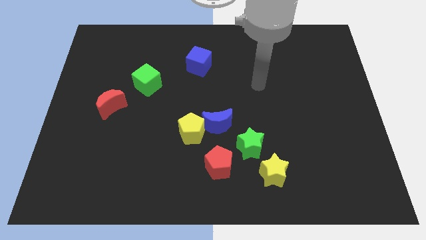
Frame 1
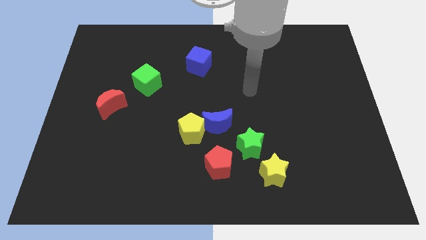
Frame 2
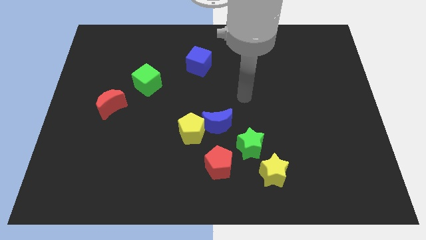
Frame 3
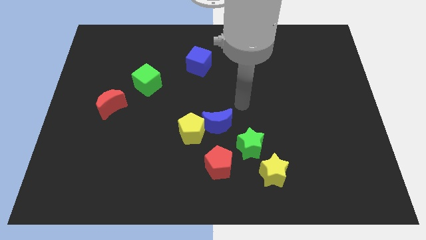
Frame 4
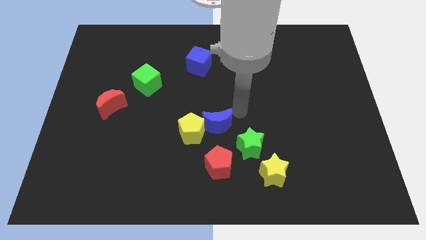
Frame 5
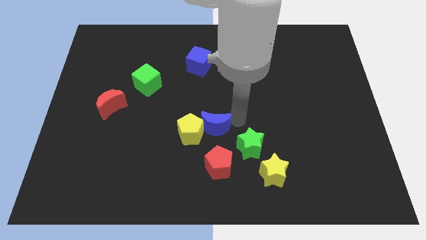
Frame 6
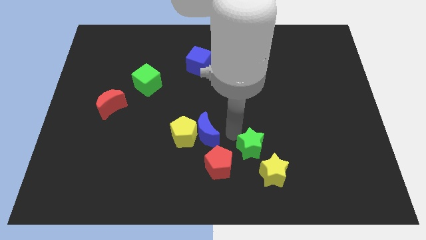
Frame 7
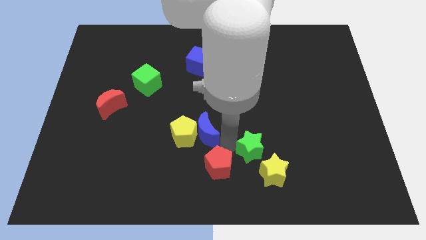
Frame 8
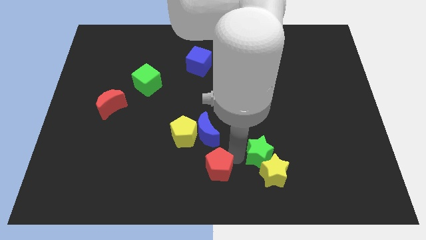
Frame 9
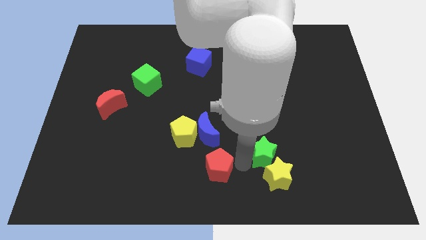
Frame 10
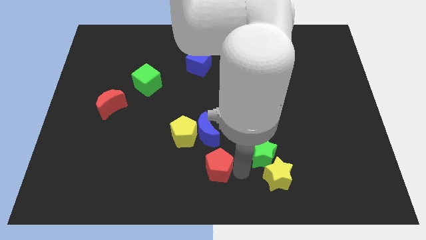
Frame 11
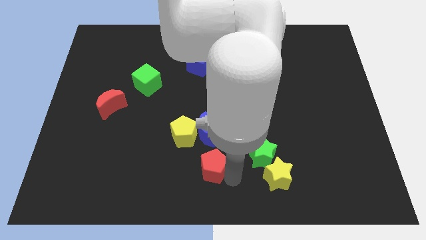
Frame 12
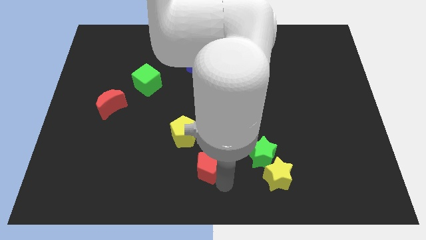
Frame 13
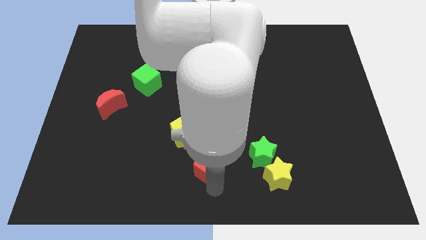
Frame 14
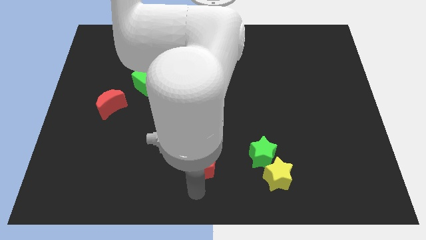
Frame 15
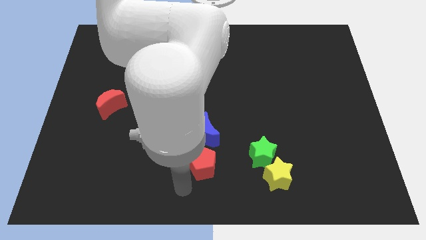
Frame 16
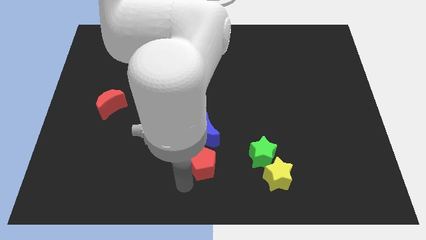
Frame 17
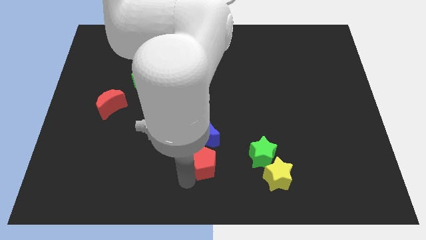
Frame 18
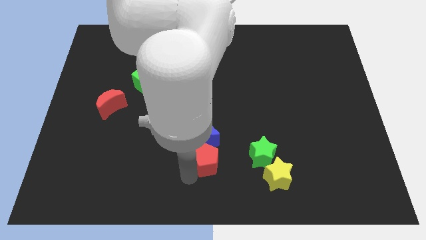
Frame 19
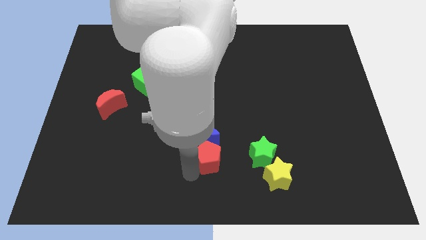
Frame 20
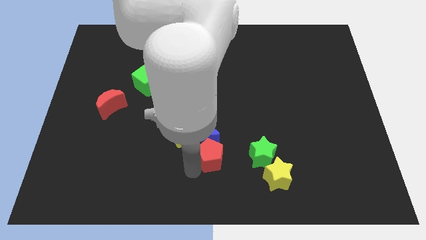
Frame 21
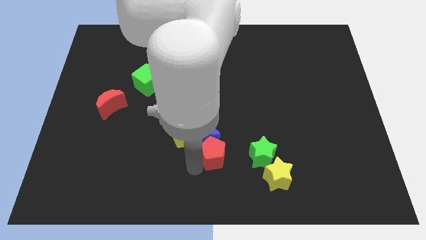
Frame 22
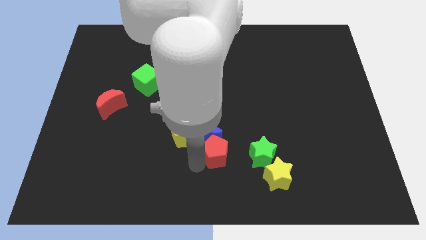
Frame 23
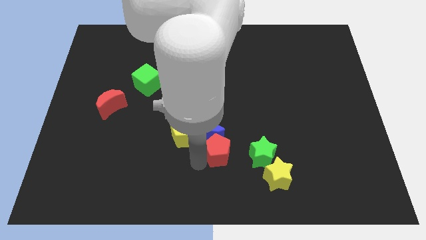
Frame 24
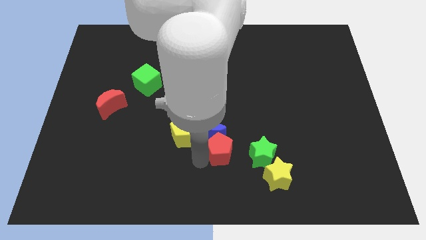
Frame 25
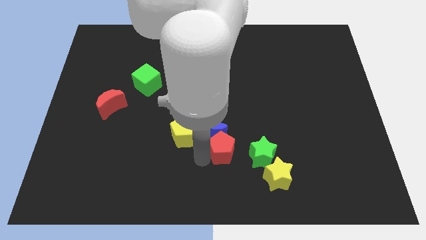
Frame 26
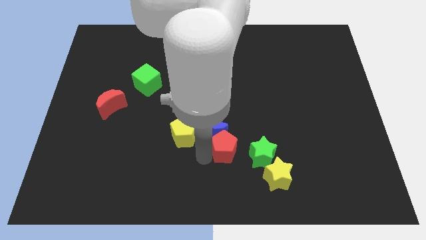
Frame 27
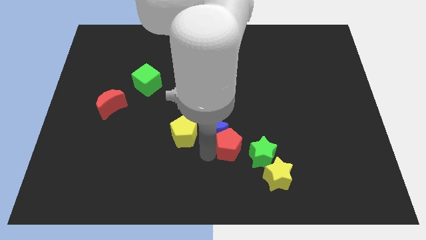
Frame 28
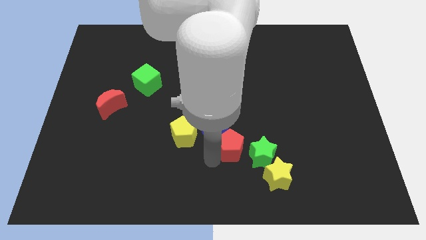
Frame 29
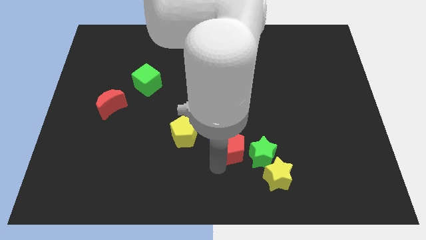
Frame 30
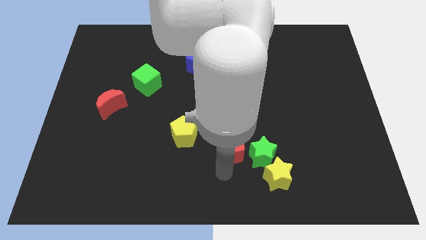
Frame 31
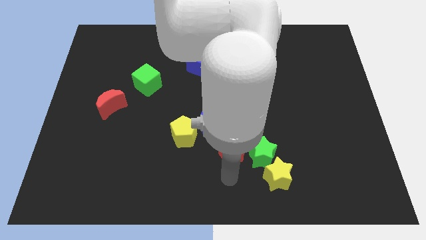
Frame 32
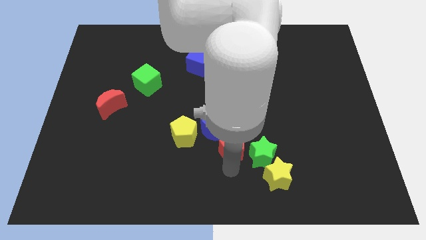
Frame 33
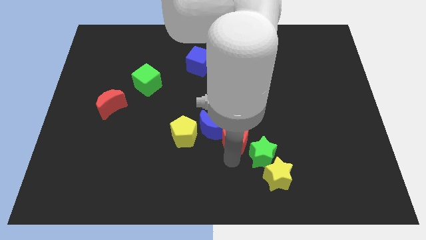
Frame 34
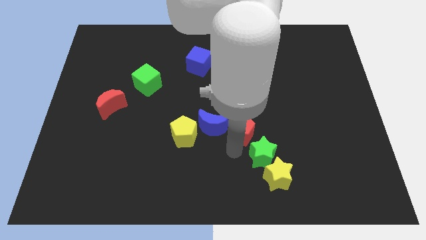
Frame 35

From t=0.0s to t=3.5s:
move the red pentagon up somewhat

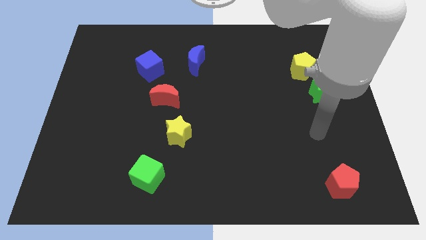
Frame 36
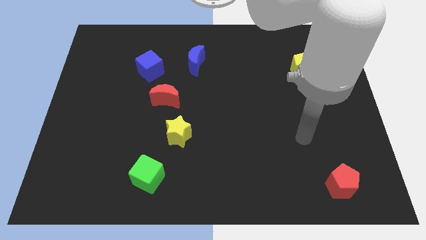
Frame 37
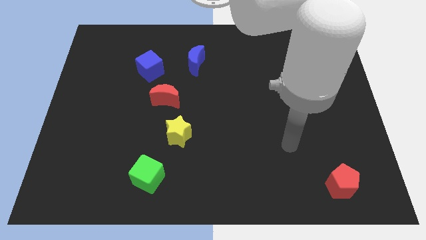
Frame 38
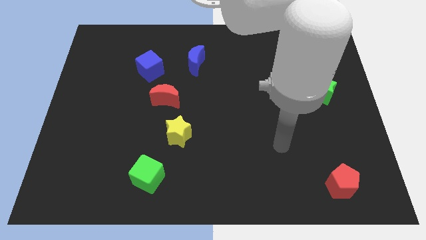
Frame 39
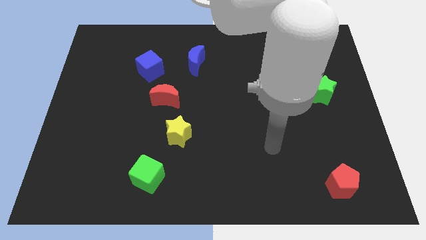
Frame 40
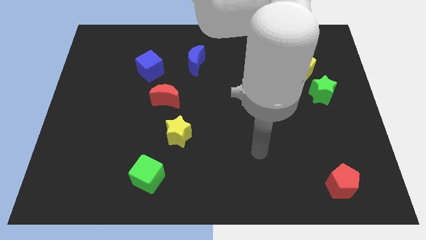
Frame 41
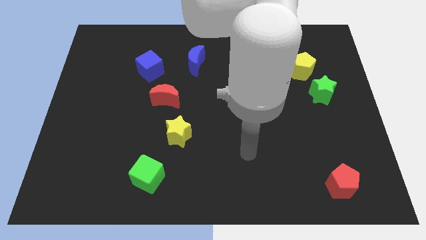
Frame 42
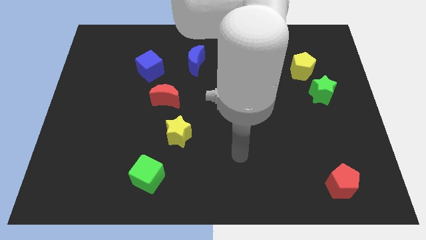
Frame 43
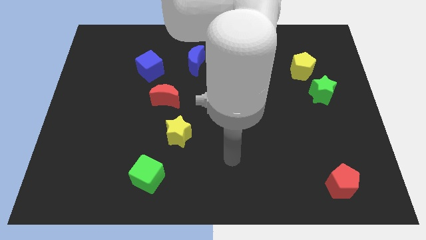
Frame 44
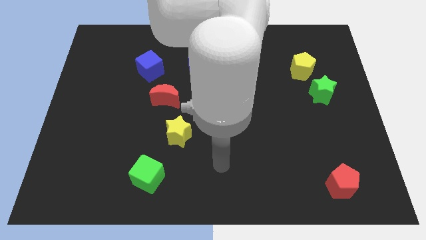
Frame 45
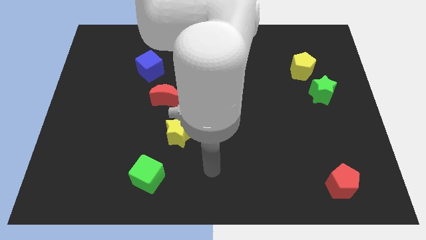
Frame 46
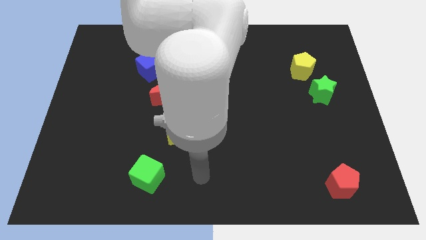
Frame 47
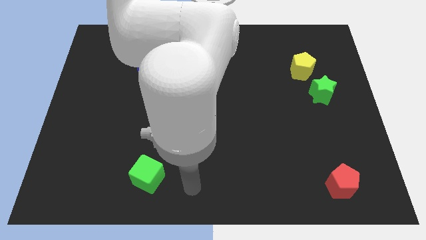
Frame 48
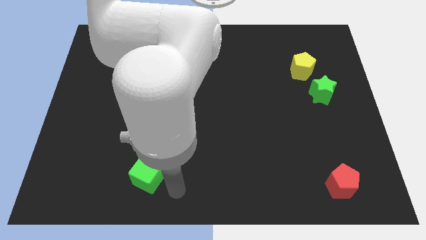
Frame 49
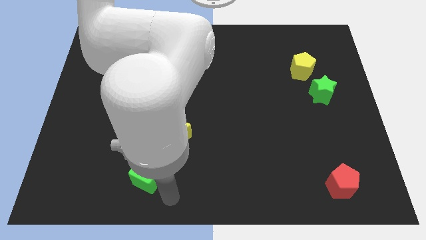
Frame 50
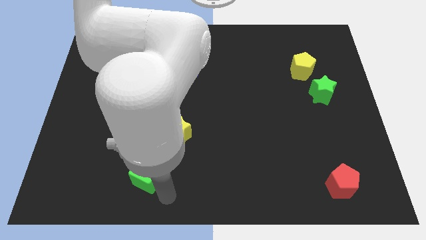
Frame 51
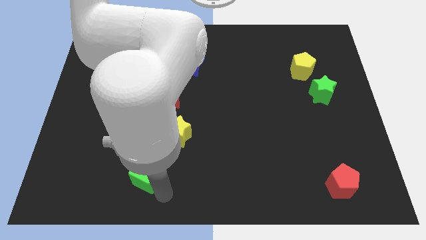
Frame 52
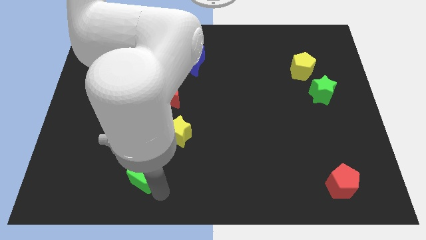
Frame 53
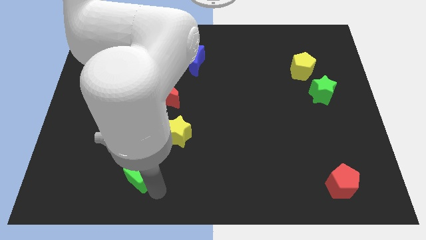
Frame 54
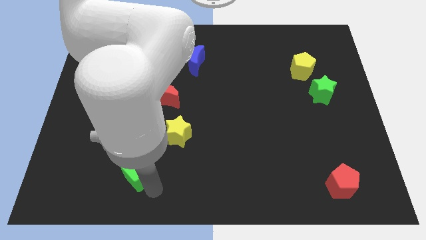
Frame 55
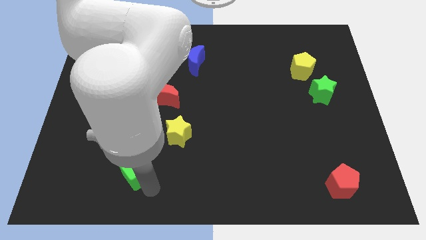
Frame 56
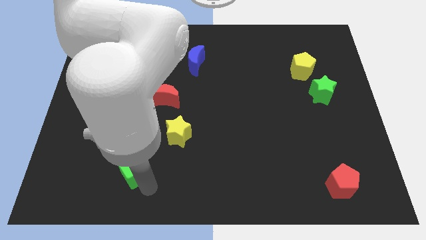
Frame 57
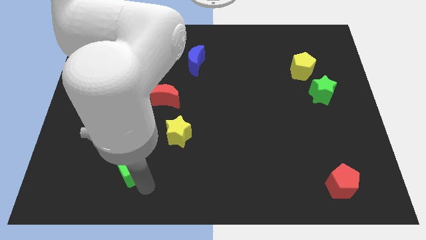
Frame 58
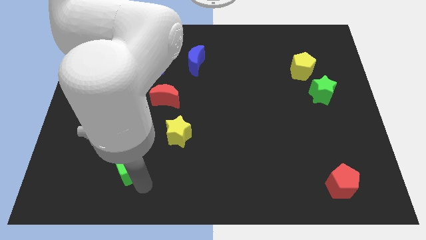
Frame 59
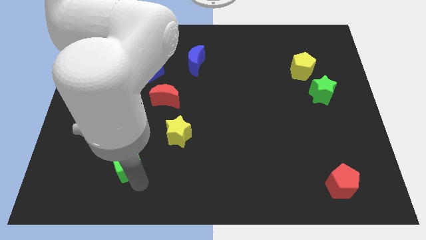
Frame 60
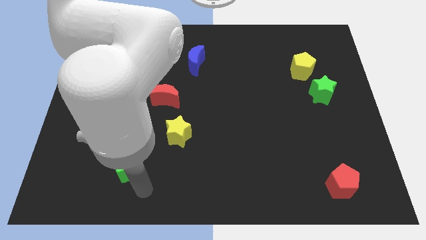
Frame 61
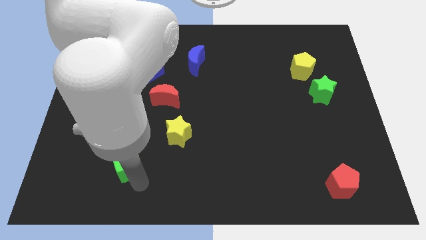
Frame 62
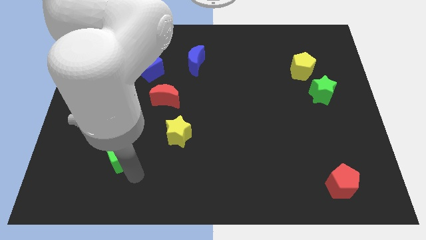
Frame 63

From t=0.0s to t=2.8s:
slightly push the green cube diagonally up and left

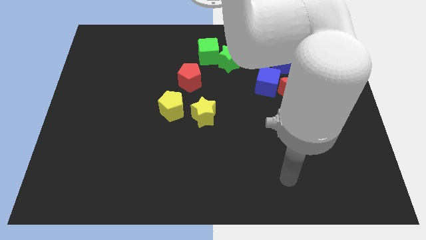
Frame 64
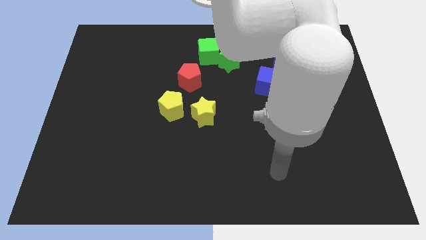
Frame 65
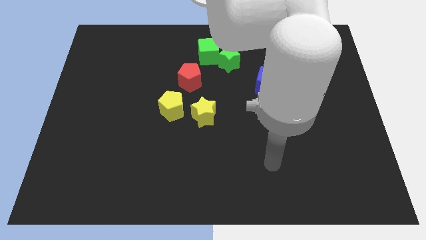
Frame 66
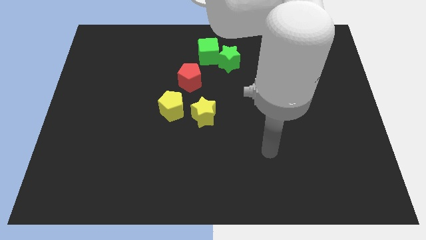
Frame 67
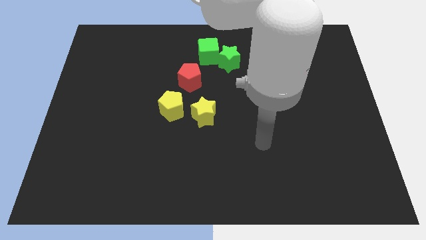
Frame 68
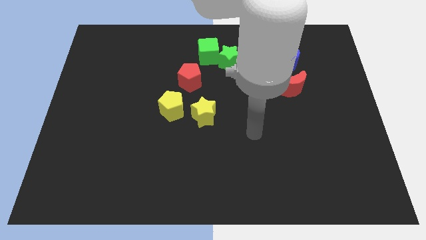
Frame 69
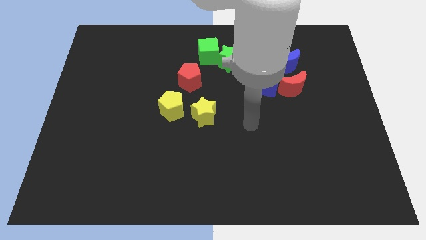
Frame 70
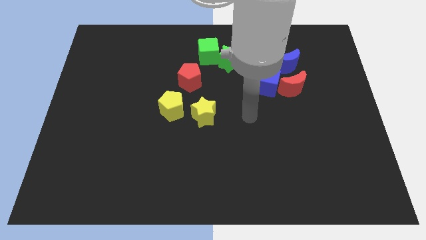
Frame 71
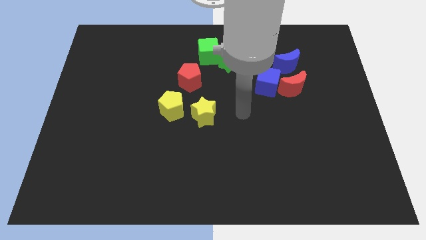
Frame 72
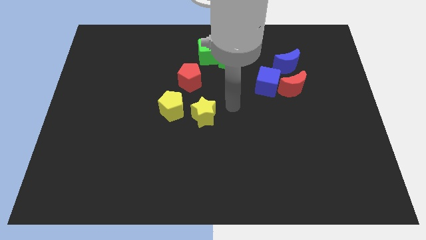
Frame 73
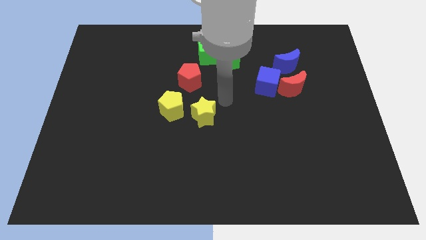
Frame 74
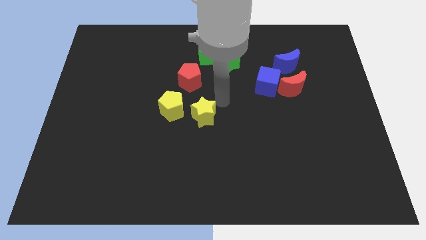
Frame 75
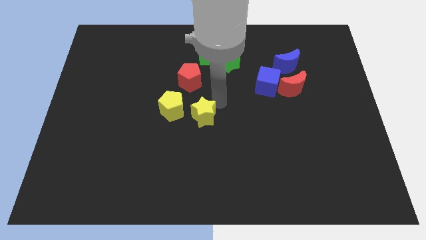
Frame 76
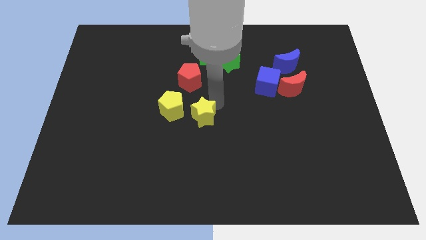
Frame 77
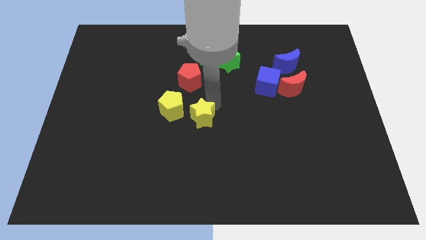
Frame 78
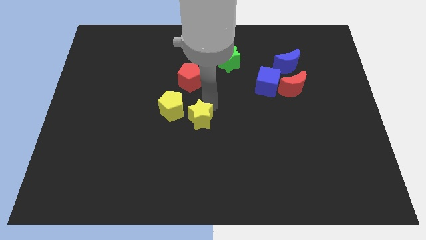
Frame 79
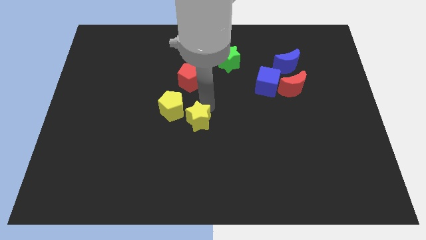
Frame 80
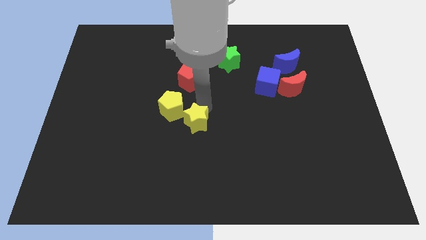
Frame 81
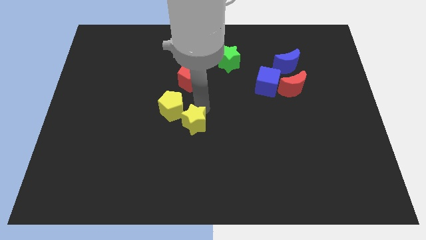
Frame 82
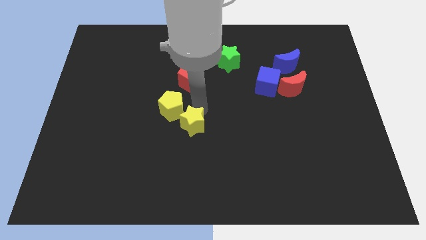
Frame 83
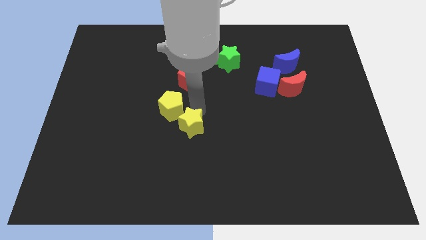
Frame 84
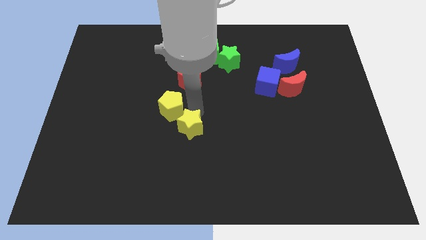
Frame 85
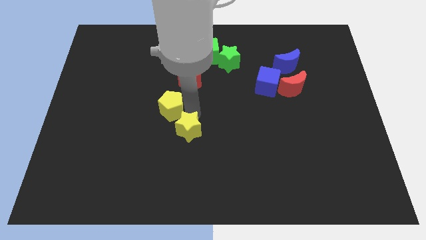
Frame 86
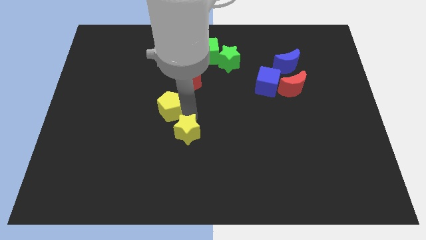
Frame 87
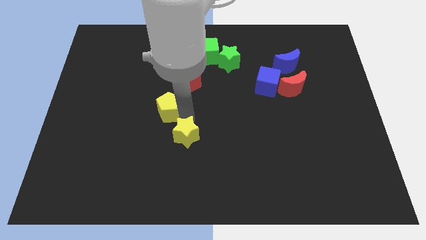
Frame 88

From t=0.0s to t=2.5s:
move the yellow star a little bit downwards and to the left
